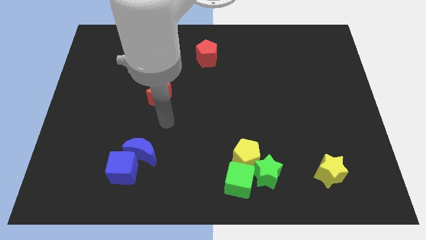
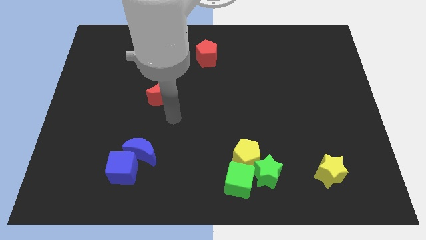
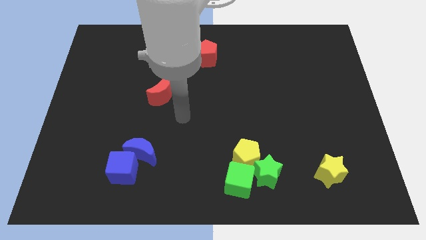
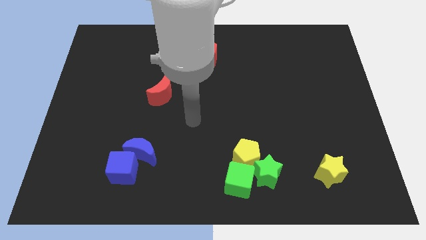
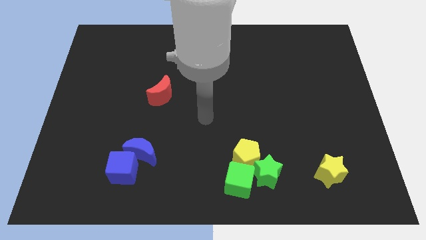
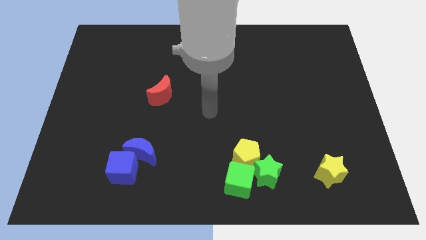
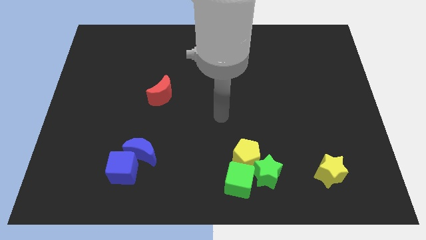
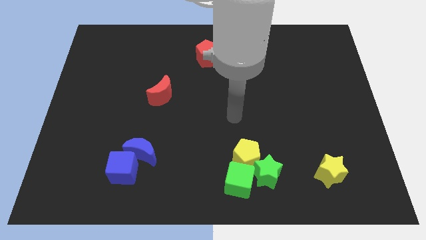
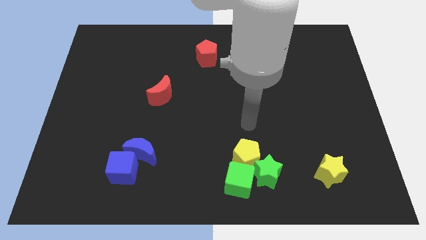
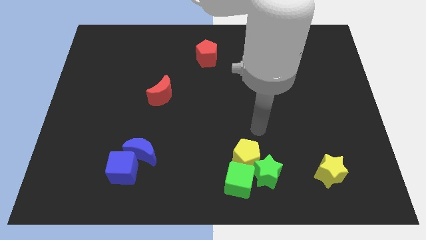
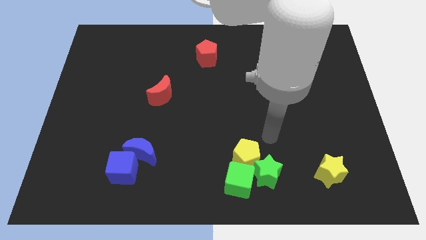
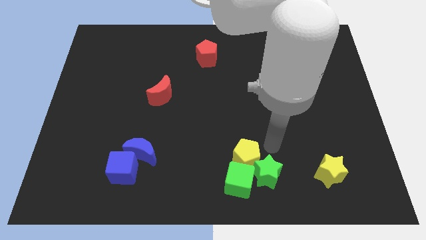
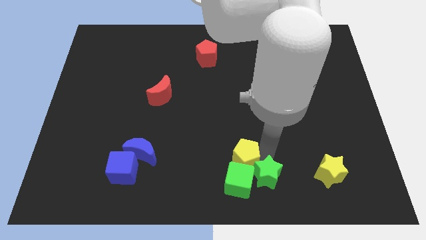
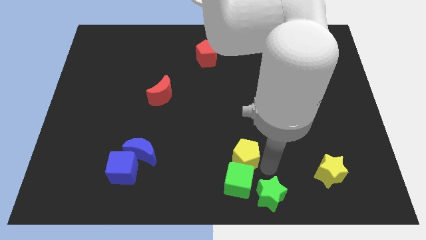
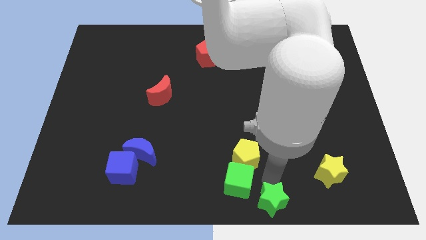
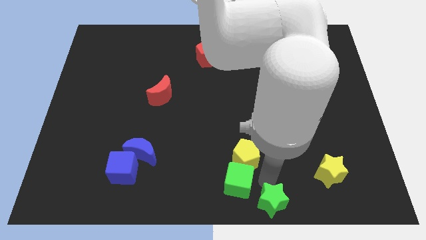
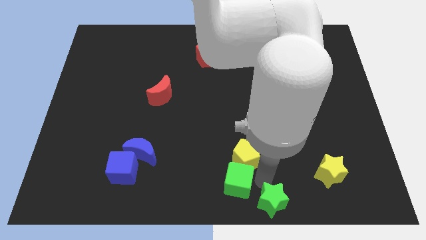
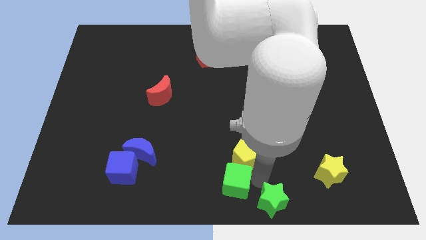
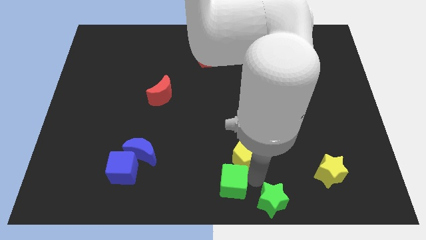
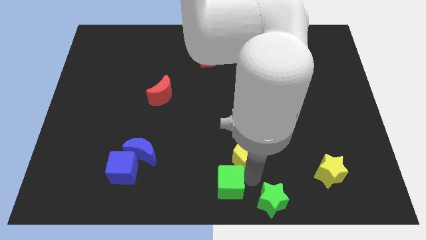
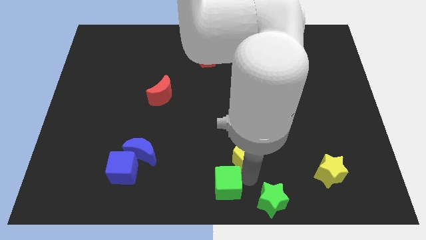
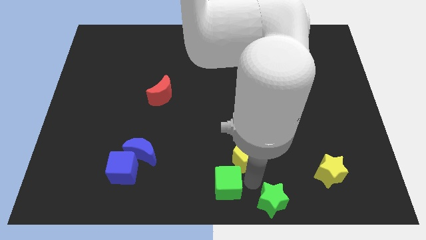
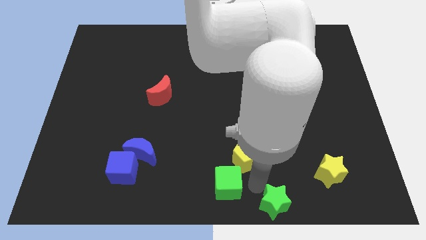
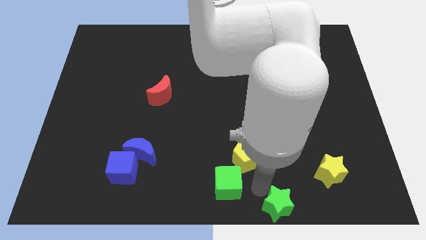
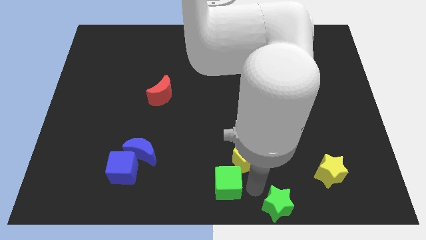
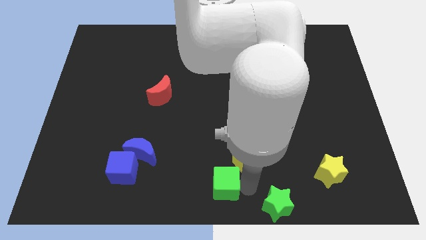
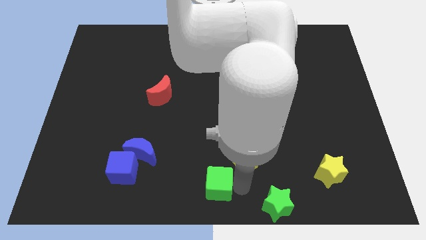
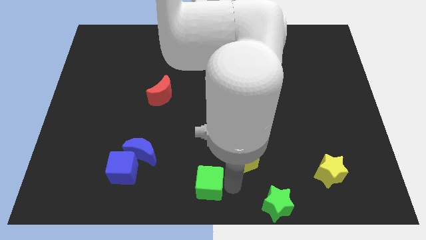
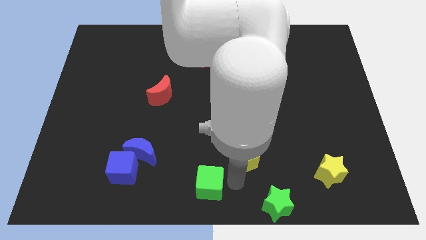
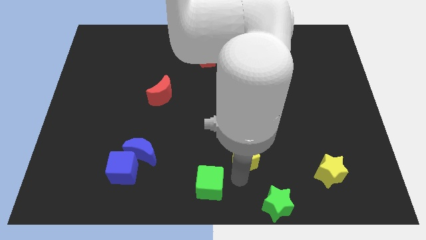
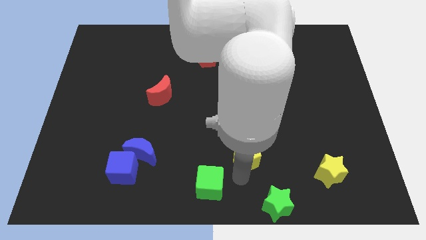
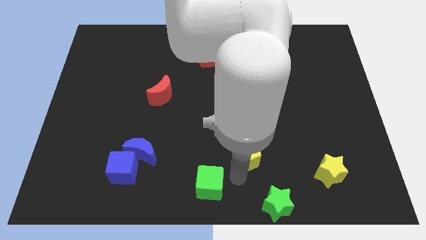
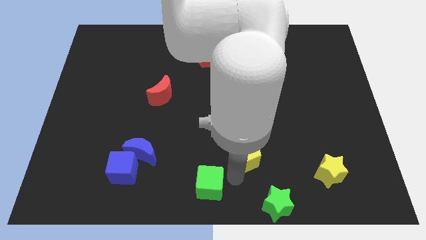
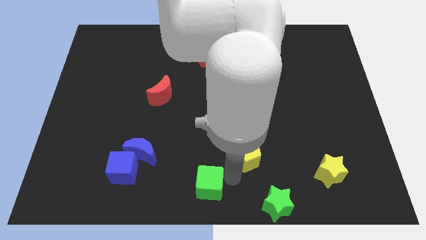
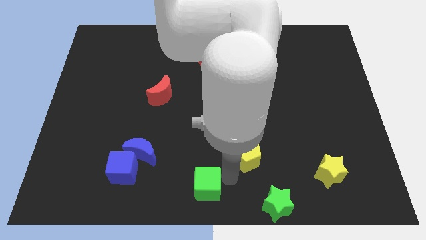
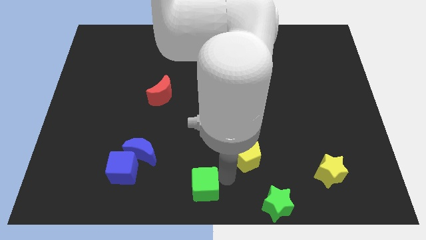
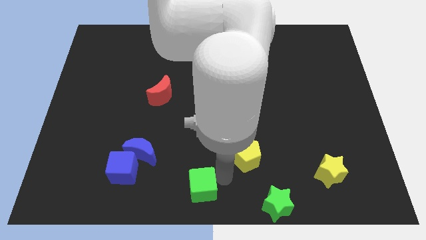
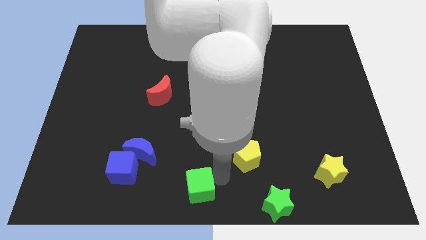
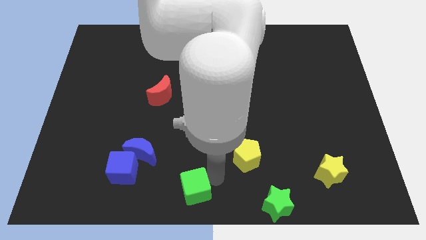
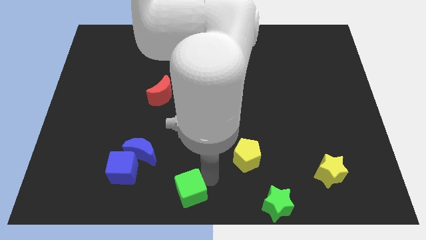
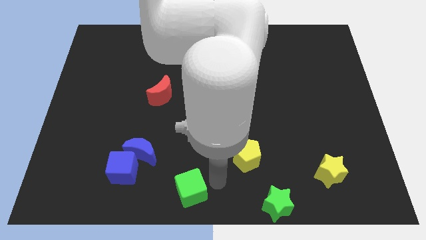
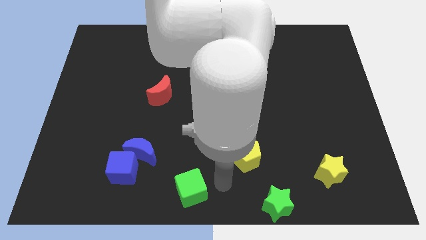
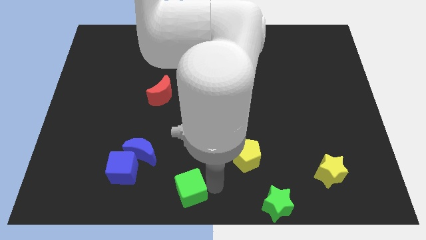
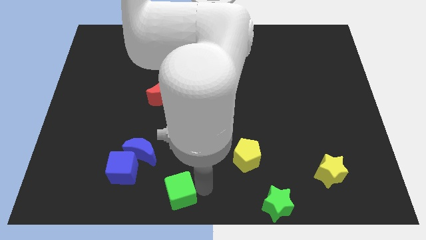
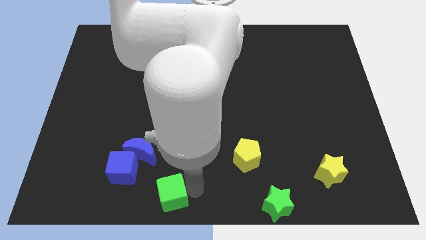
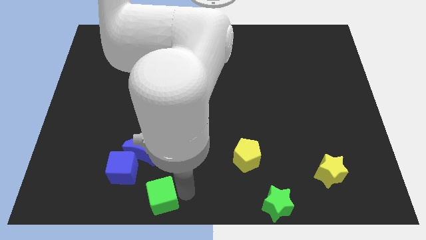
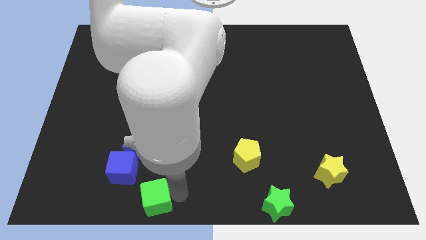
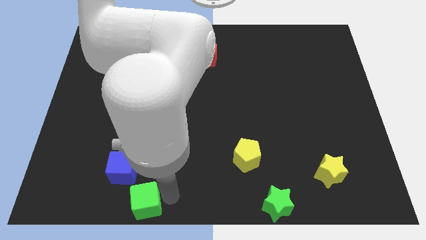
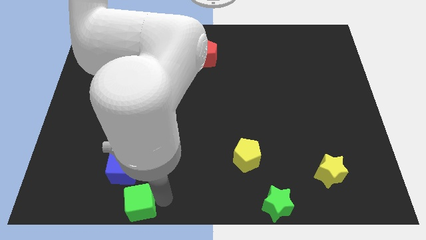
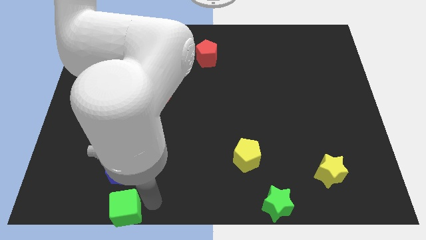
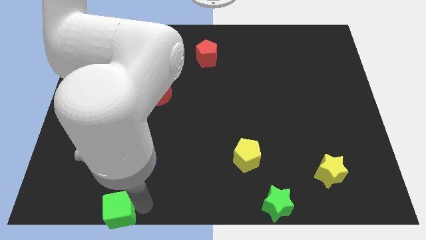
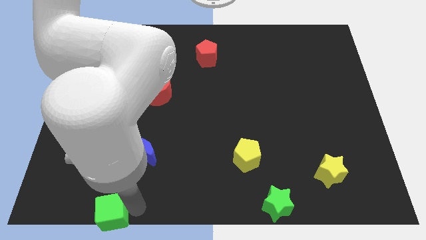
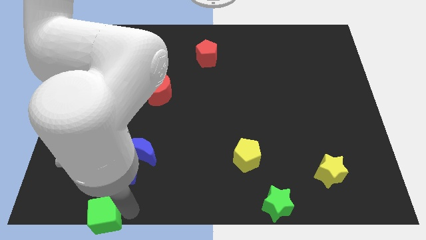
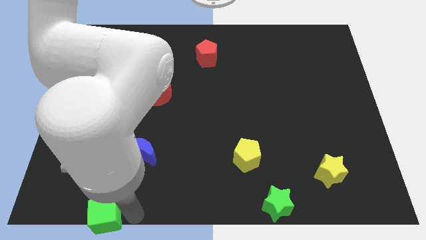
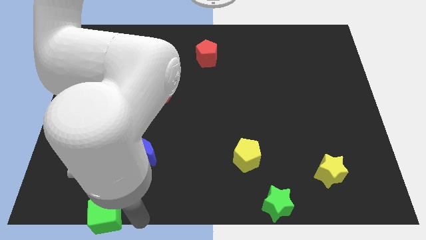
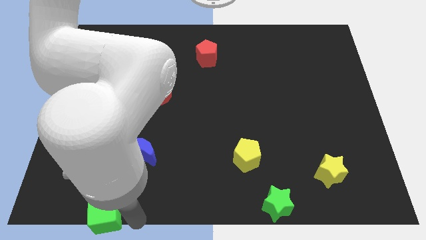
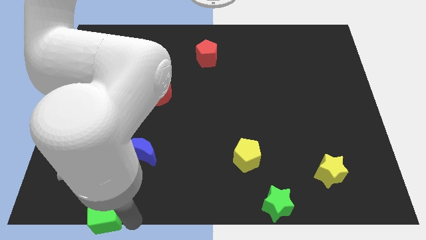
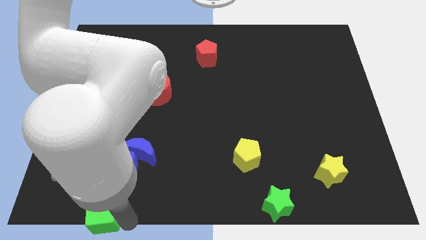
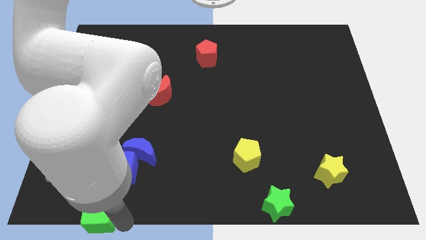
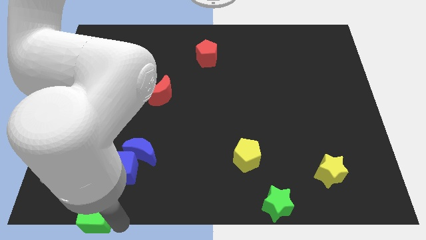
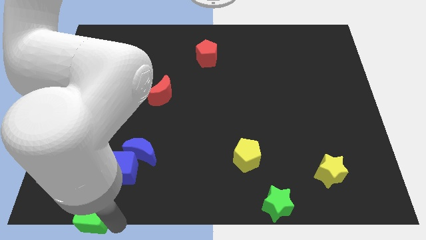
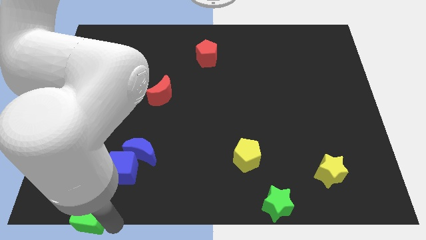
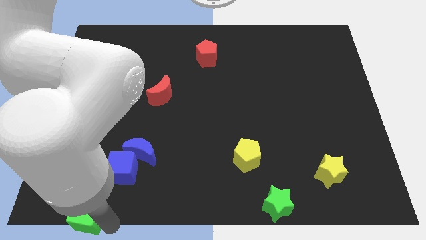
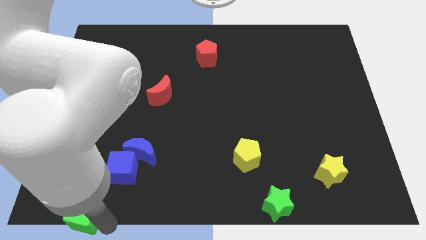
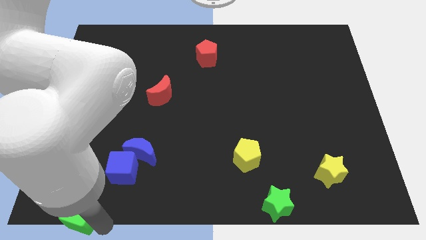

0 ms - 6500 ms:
push the green cube to the bottom left of the board
